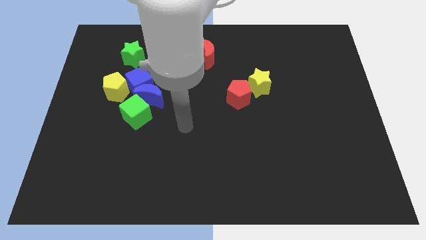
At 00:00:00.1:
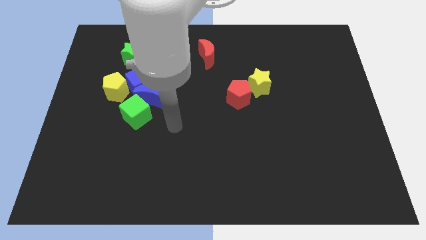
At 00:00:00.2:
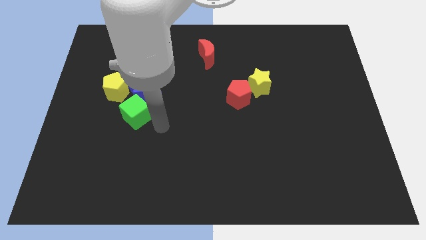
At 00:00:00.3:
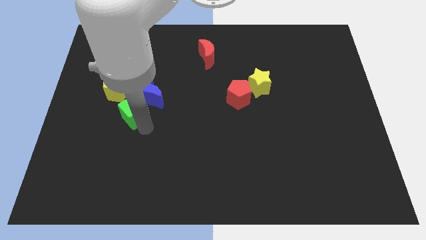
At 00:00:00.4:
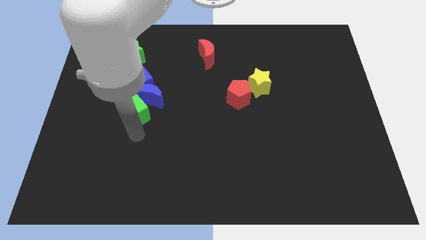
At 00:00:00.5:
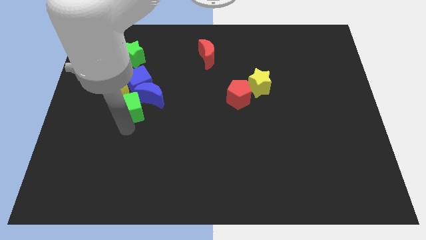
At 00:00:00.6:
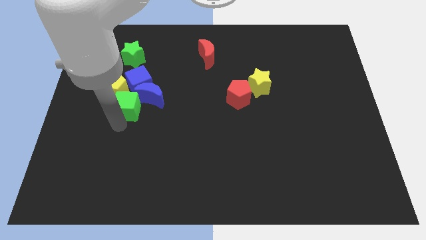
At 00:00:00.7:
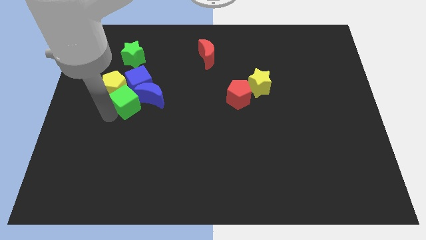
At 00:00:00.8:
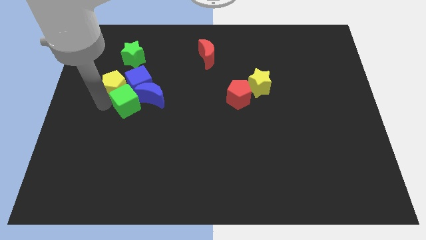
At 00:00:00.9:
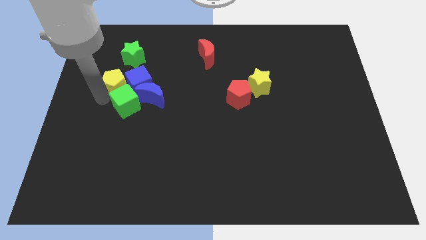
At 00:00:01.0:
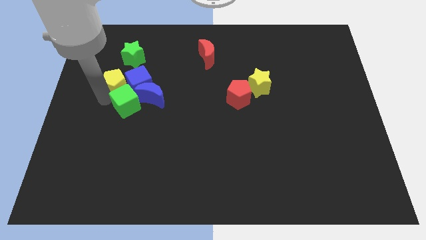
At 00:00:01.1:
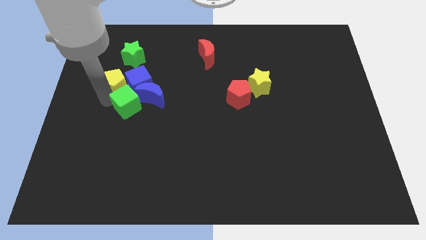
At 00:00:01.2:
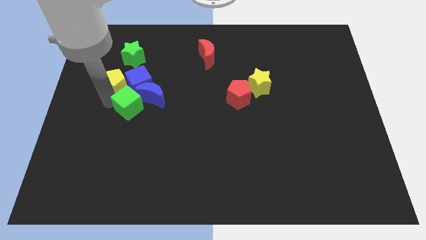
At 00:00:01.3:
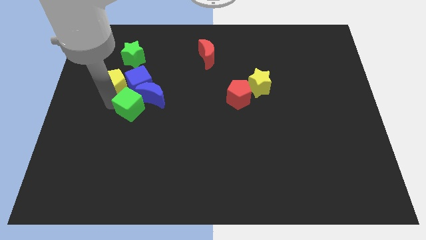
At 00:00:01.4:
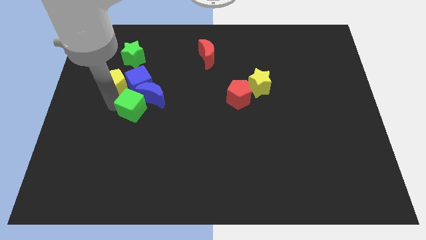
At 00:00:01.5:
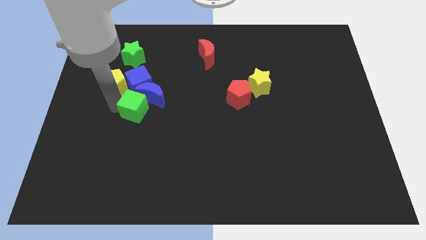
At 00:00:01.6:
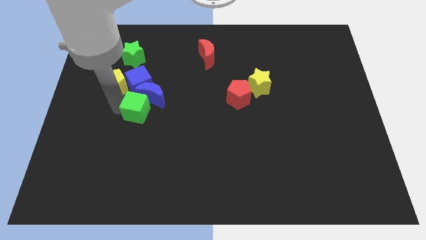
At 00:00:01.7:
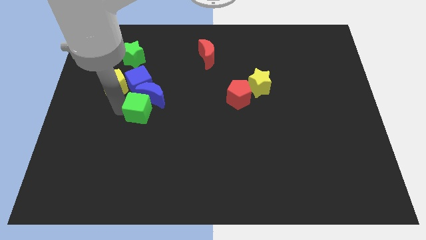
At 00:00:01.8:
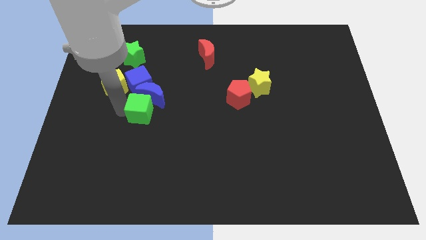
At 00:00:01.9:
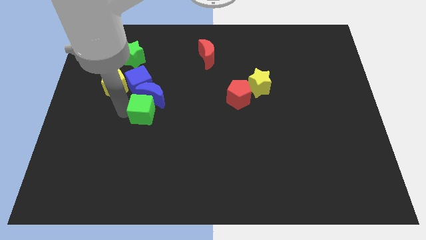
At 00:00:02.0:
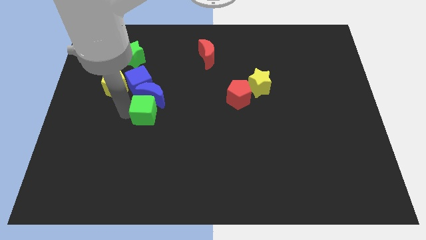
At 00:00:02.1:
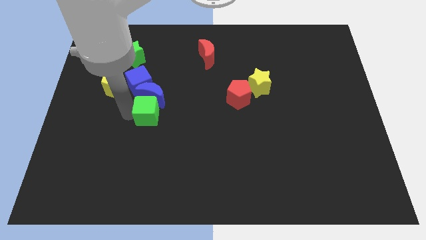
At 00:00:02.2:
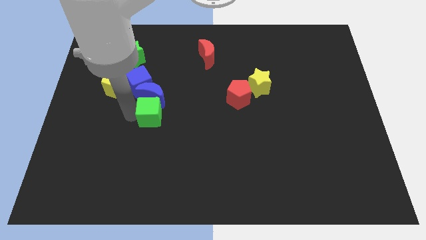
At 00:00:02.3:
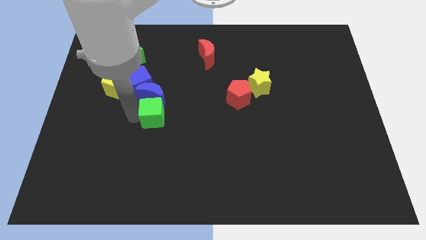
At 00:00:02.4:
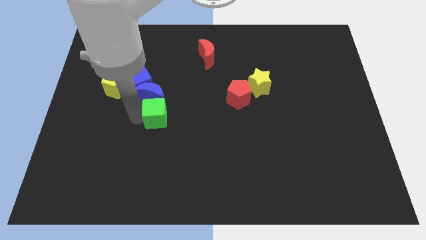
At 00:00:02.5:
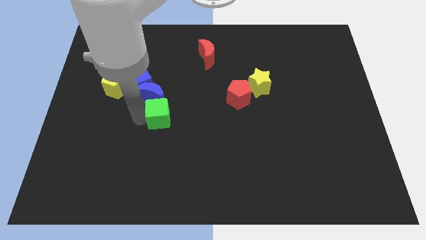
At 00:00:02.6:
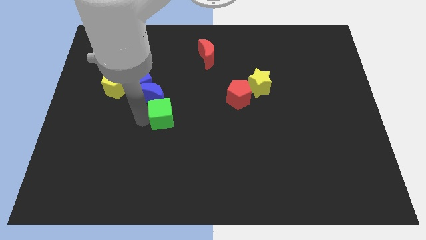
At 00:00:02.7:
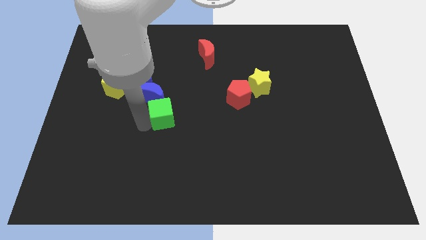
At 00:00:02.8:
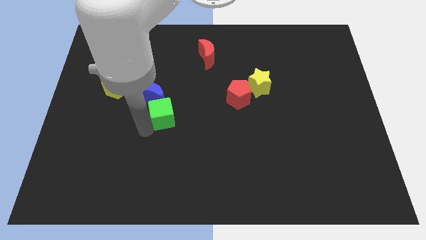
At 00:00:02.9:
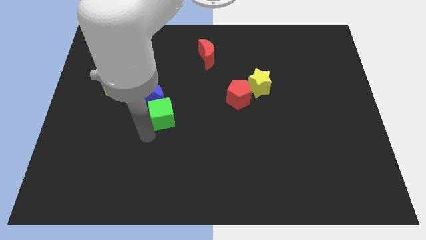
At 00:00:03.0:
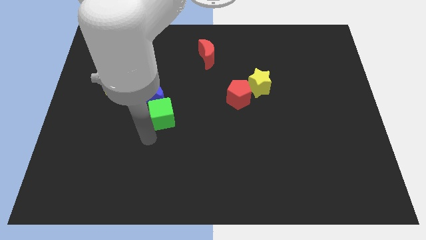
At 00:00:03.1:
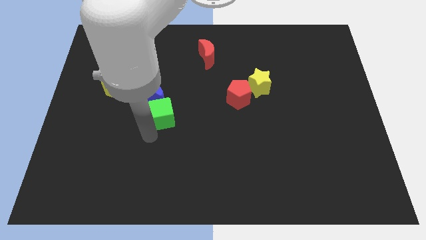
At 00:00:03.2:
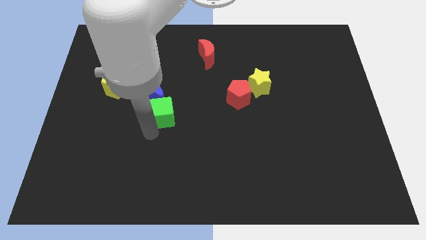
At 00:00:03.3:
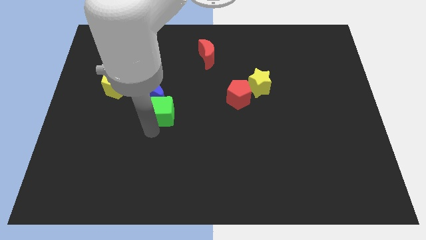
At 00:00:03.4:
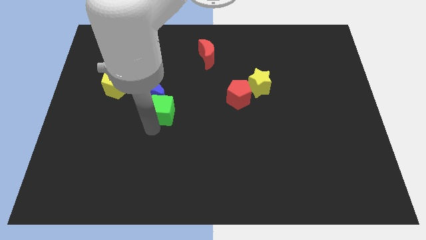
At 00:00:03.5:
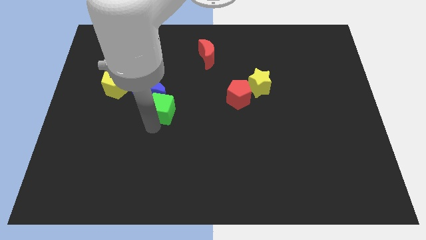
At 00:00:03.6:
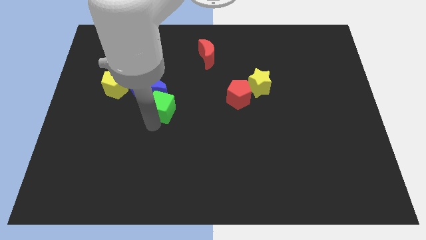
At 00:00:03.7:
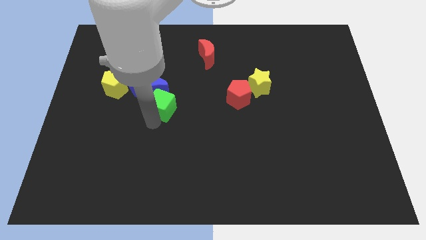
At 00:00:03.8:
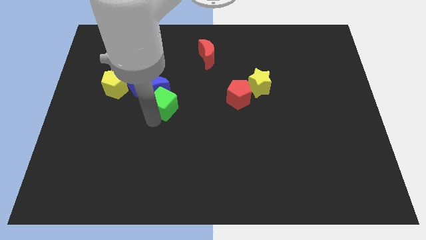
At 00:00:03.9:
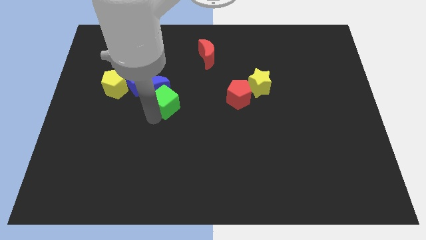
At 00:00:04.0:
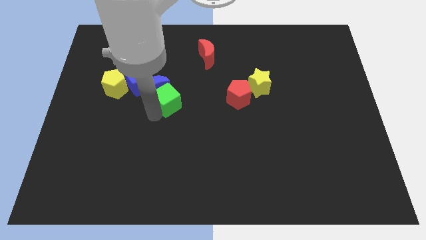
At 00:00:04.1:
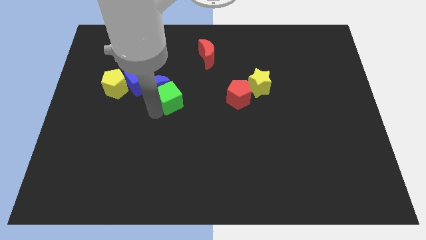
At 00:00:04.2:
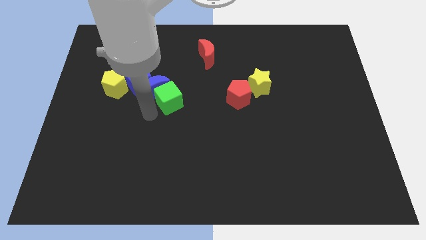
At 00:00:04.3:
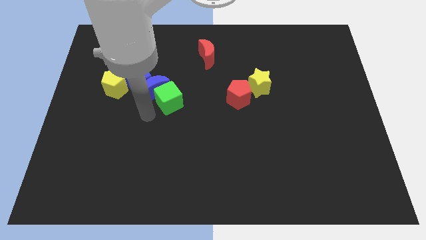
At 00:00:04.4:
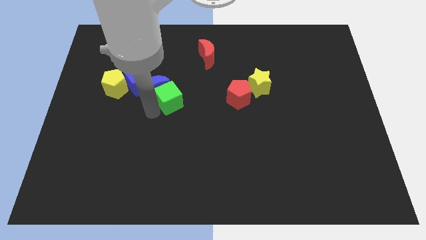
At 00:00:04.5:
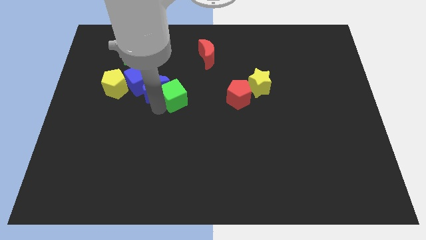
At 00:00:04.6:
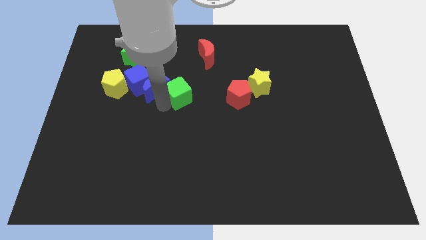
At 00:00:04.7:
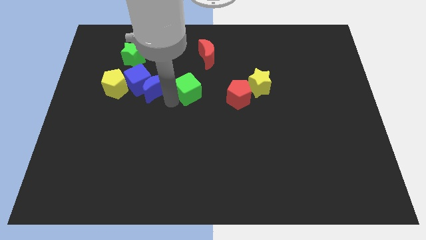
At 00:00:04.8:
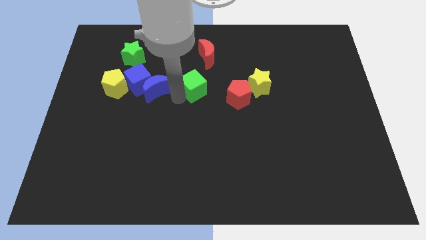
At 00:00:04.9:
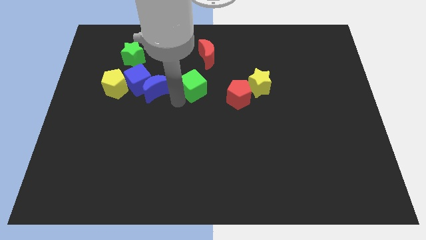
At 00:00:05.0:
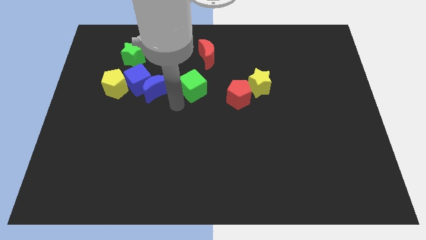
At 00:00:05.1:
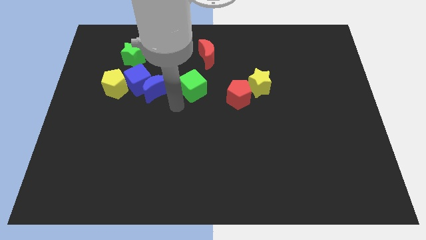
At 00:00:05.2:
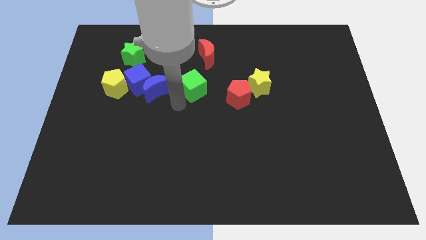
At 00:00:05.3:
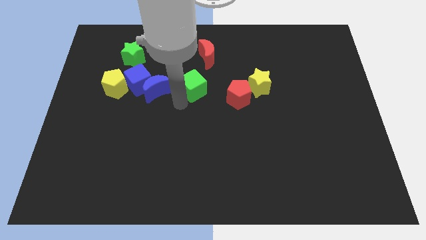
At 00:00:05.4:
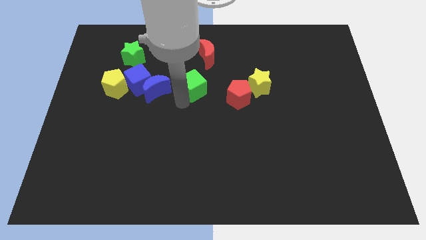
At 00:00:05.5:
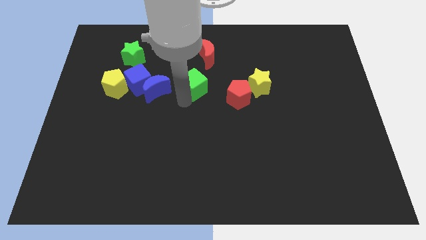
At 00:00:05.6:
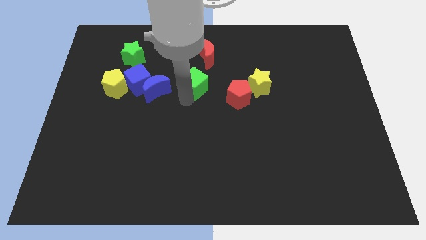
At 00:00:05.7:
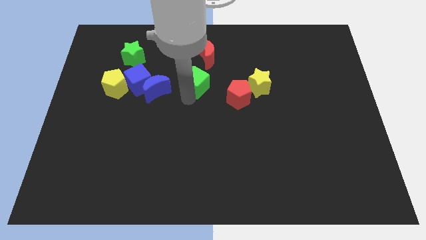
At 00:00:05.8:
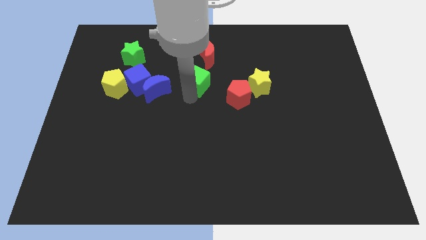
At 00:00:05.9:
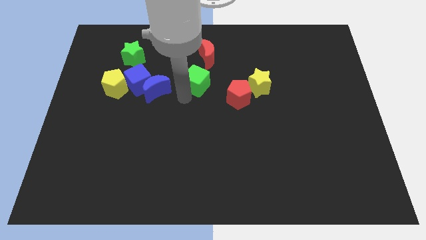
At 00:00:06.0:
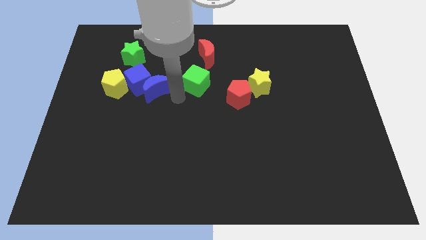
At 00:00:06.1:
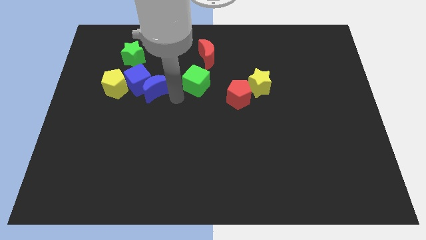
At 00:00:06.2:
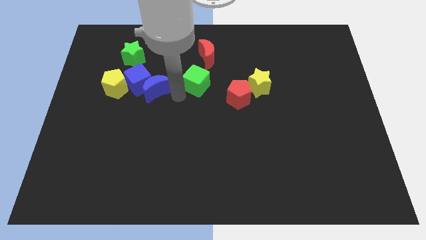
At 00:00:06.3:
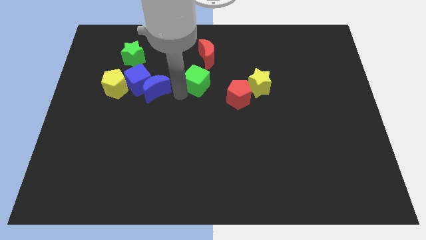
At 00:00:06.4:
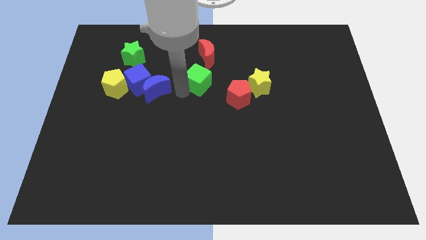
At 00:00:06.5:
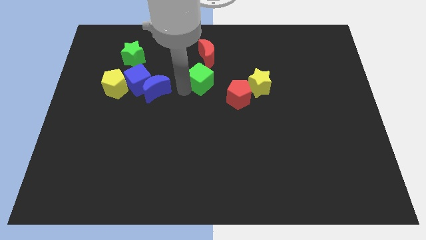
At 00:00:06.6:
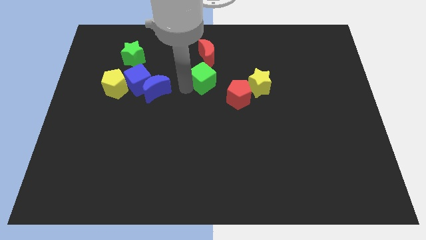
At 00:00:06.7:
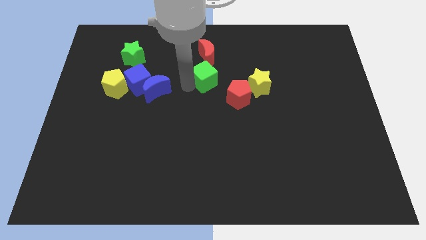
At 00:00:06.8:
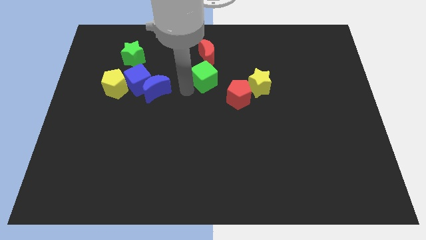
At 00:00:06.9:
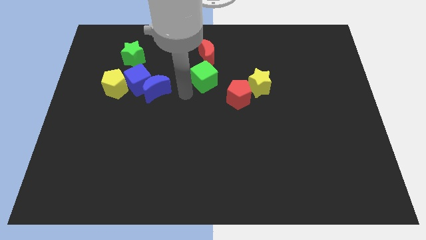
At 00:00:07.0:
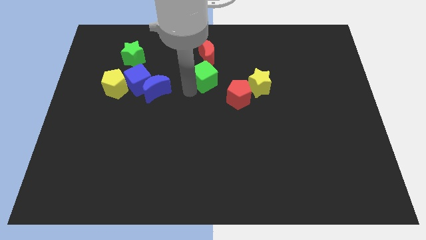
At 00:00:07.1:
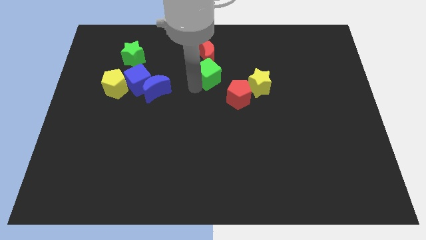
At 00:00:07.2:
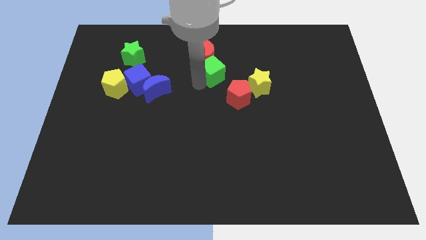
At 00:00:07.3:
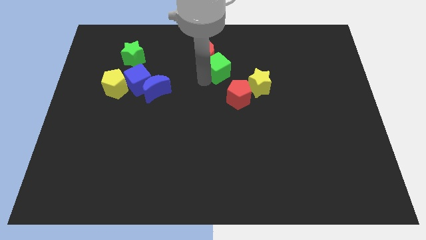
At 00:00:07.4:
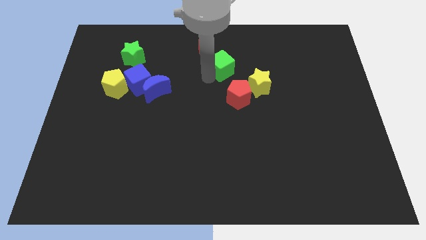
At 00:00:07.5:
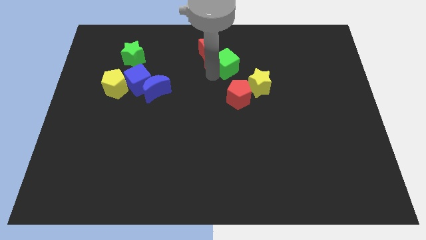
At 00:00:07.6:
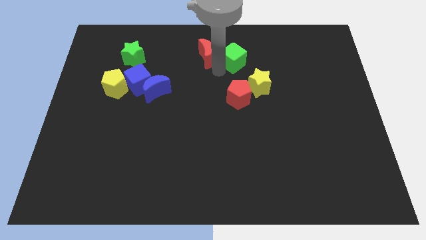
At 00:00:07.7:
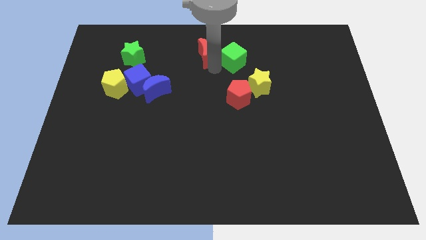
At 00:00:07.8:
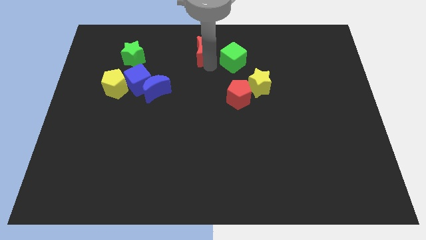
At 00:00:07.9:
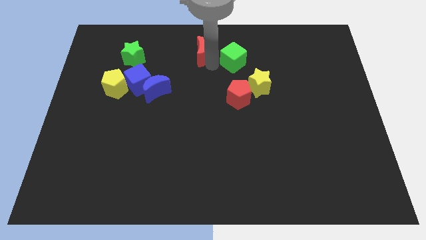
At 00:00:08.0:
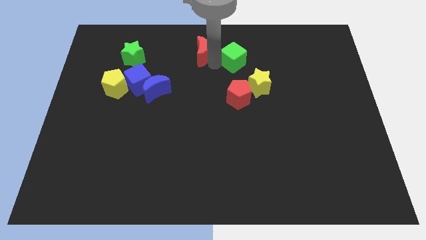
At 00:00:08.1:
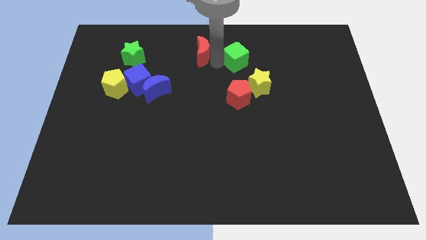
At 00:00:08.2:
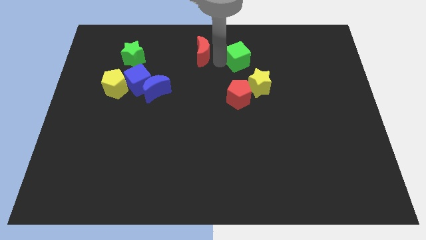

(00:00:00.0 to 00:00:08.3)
move the green cube to the top side of the yellow star
